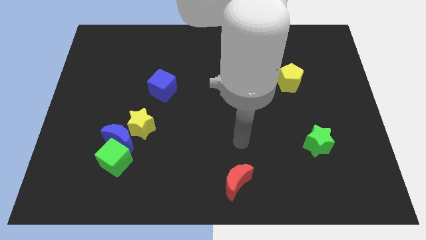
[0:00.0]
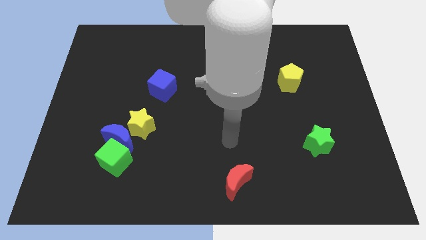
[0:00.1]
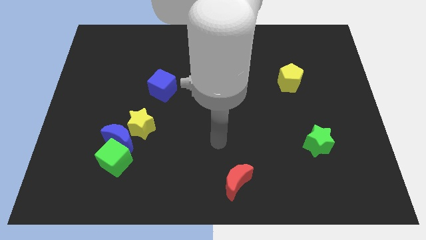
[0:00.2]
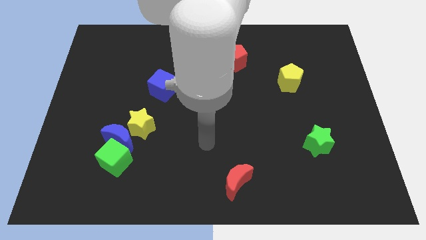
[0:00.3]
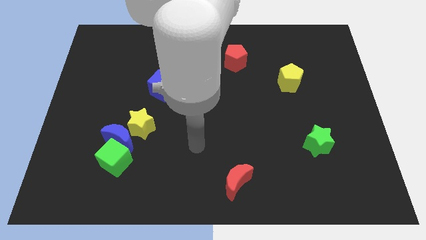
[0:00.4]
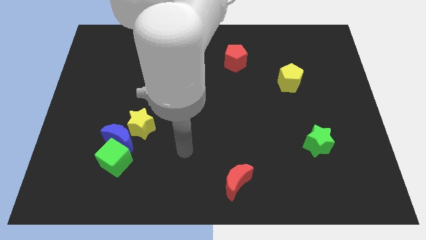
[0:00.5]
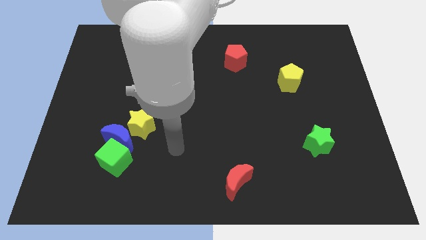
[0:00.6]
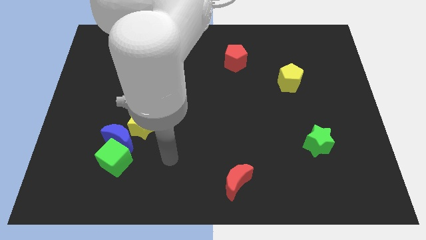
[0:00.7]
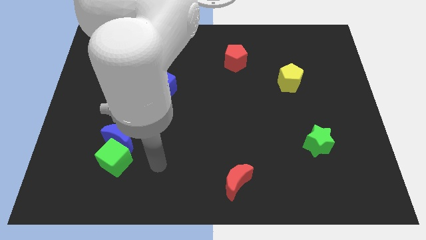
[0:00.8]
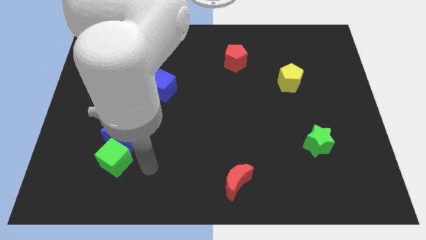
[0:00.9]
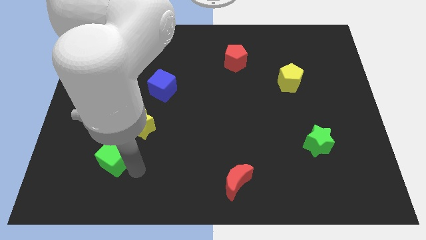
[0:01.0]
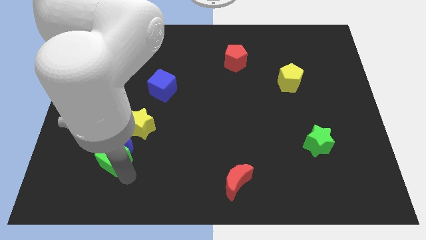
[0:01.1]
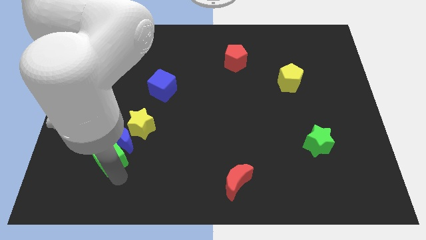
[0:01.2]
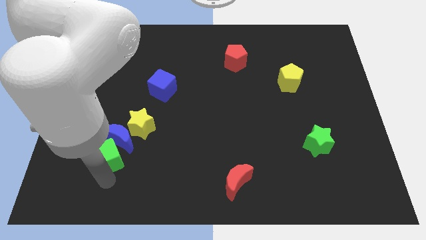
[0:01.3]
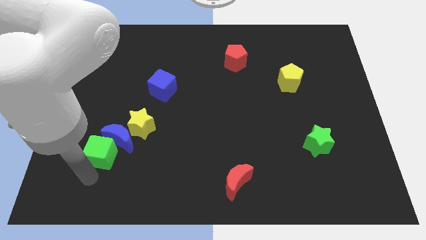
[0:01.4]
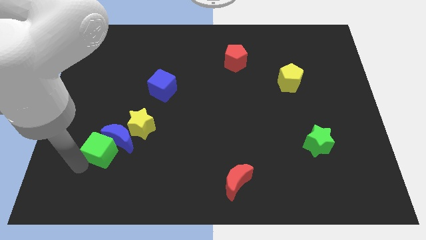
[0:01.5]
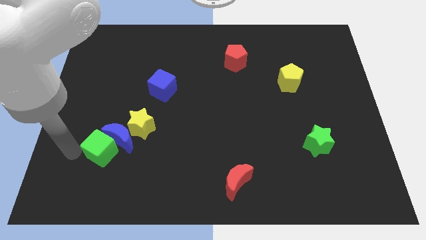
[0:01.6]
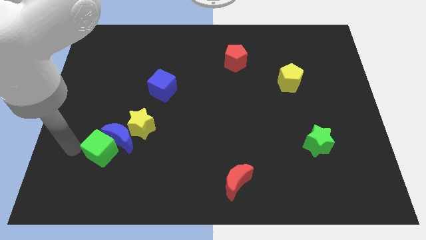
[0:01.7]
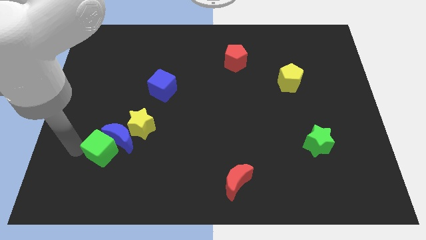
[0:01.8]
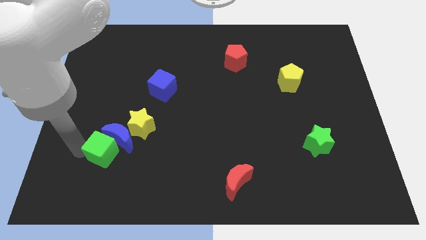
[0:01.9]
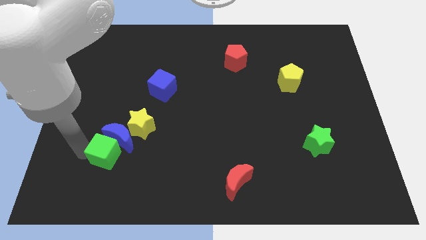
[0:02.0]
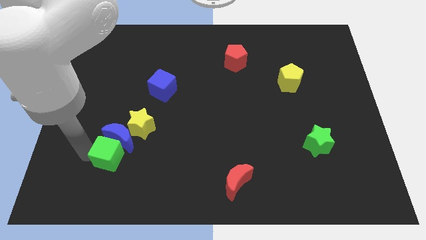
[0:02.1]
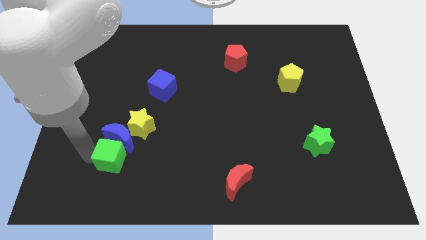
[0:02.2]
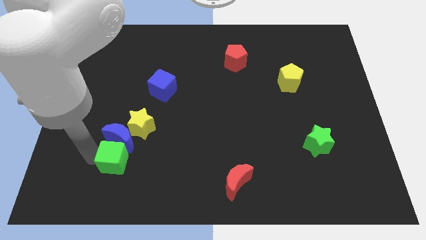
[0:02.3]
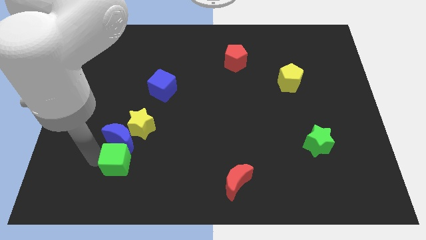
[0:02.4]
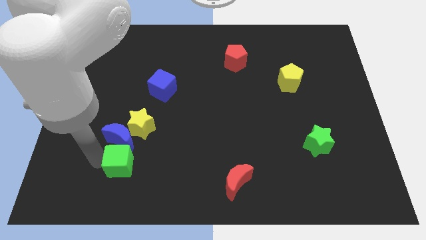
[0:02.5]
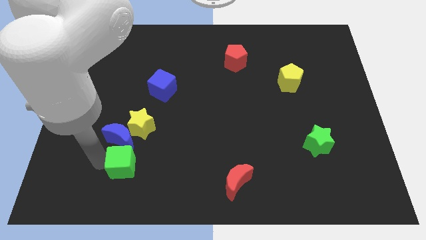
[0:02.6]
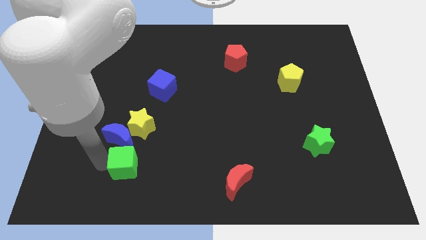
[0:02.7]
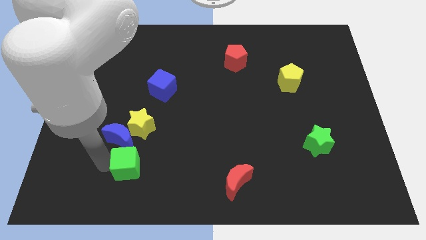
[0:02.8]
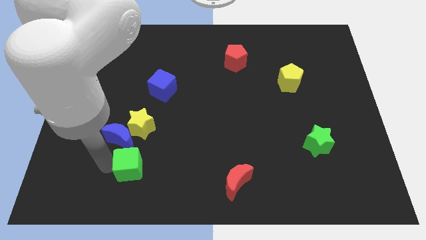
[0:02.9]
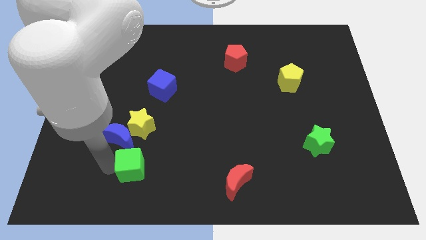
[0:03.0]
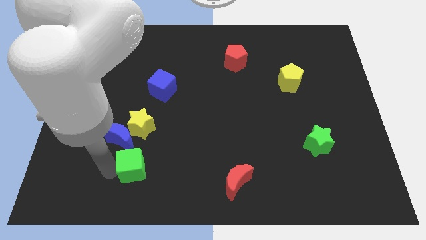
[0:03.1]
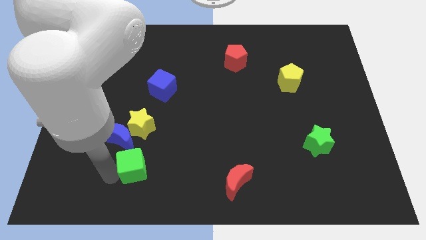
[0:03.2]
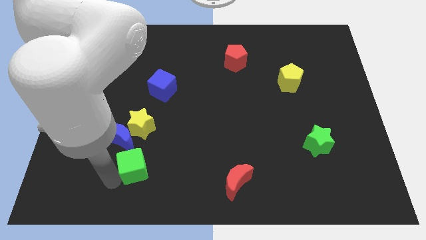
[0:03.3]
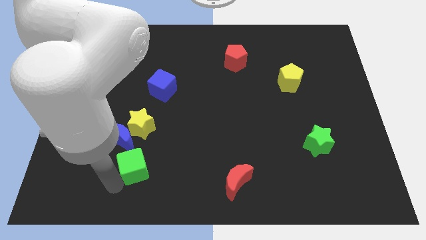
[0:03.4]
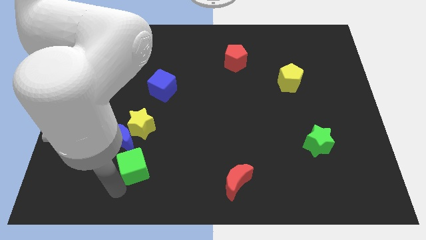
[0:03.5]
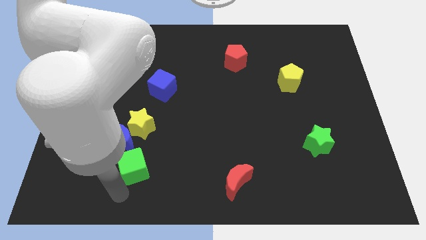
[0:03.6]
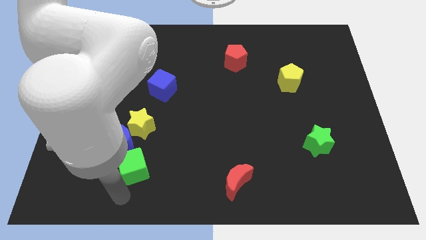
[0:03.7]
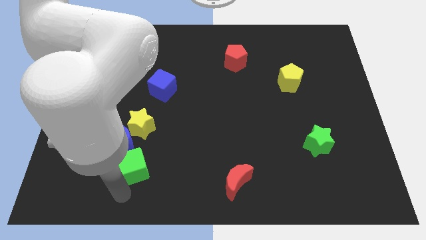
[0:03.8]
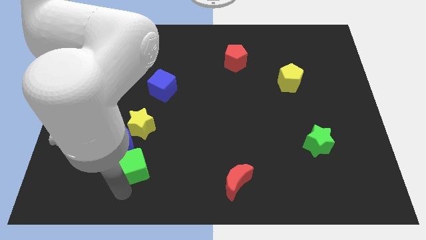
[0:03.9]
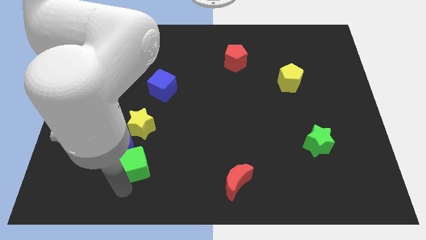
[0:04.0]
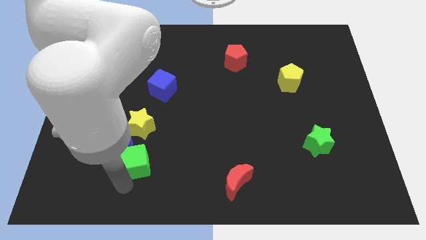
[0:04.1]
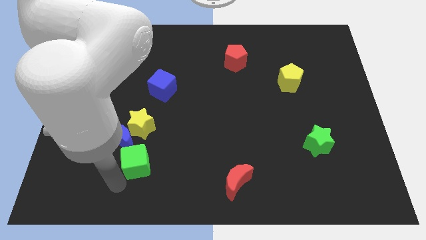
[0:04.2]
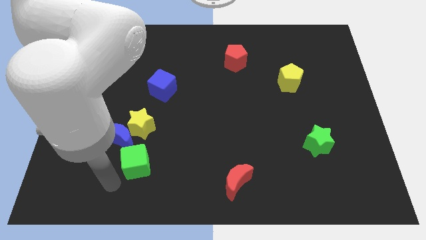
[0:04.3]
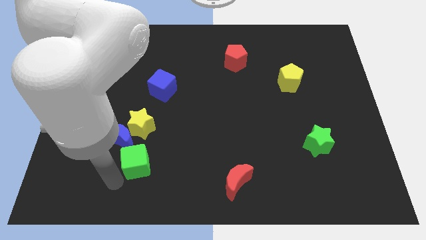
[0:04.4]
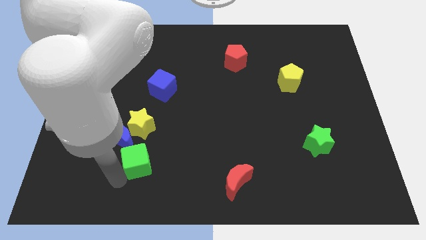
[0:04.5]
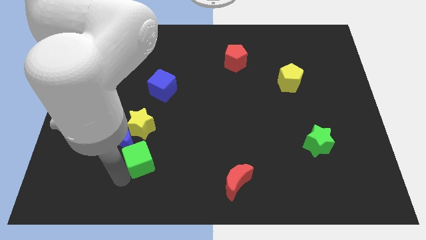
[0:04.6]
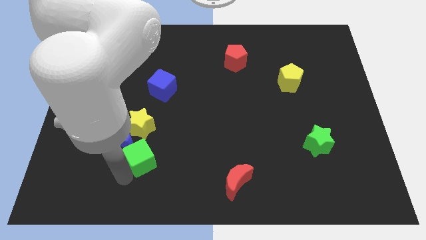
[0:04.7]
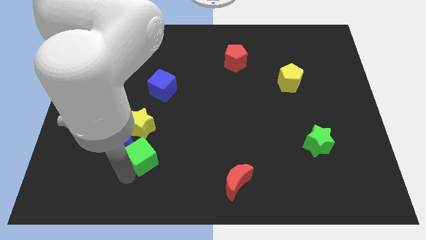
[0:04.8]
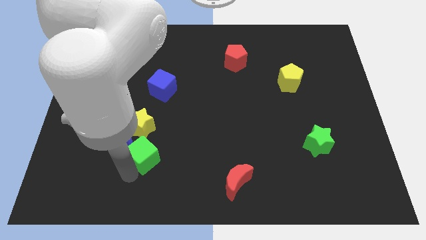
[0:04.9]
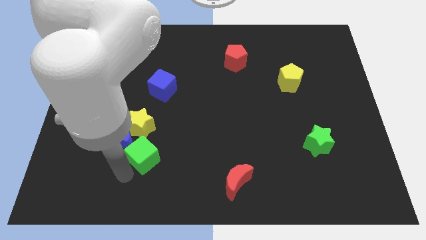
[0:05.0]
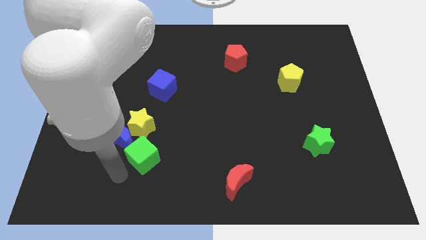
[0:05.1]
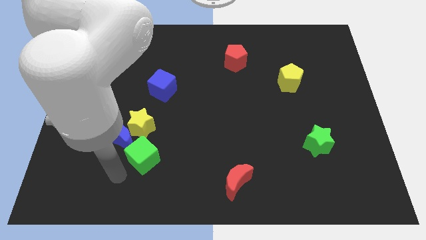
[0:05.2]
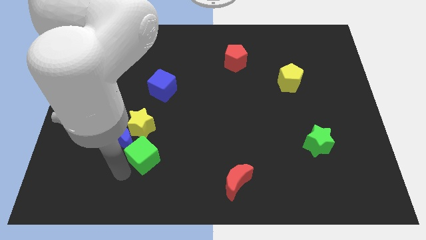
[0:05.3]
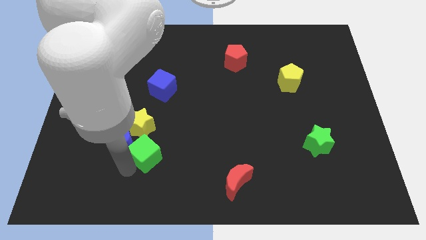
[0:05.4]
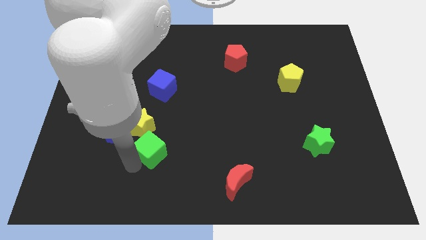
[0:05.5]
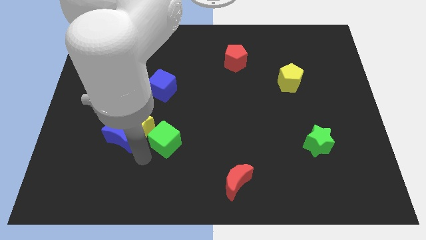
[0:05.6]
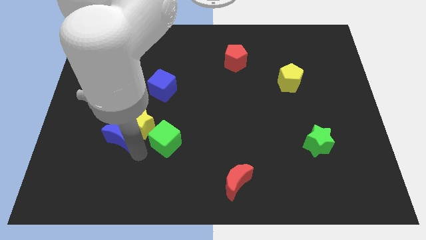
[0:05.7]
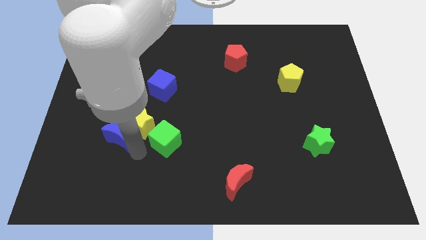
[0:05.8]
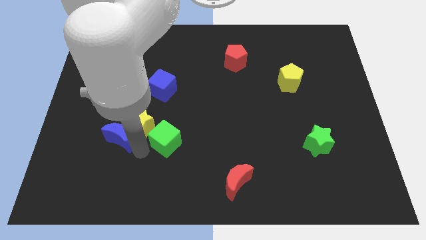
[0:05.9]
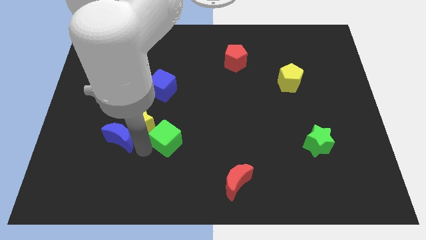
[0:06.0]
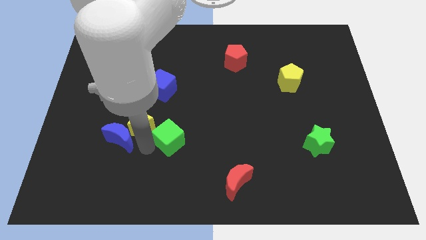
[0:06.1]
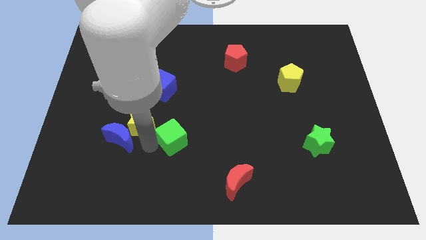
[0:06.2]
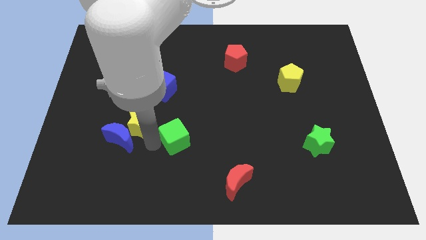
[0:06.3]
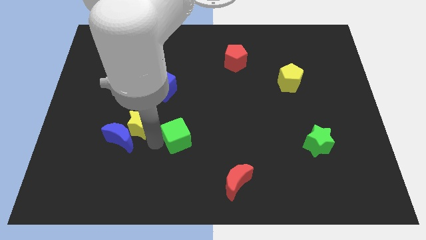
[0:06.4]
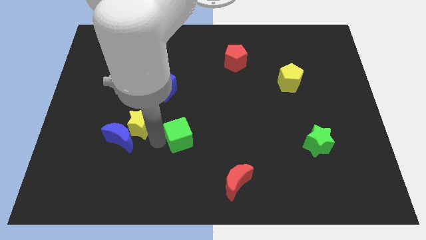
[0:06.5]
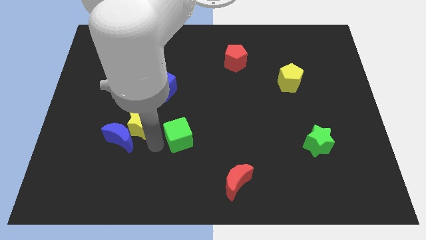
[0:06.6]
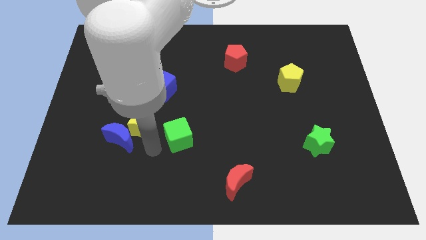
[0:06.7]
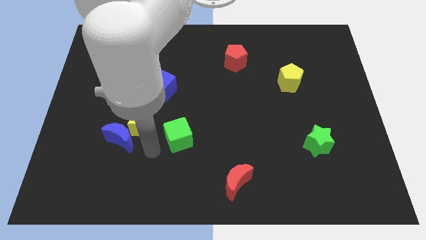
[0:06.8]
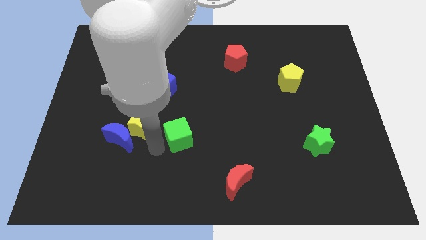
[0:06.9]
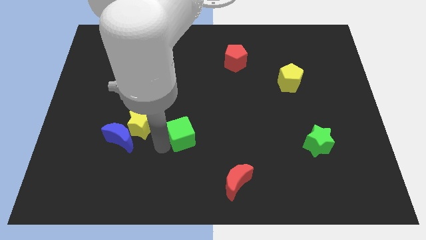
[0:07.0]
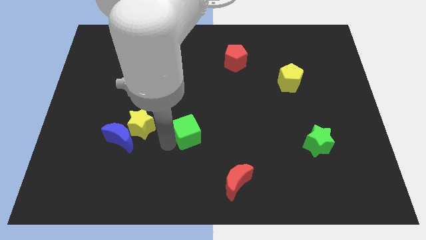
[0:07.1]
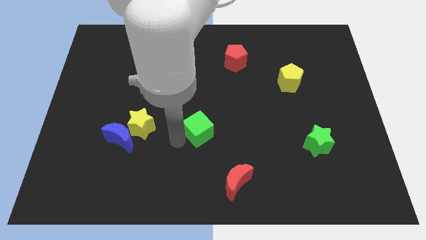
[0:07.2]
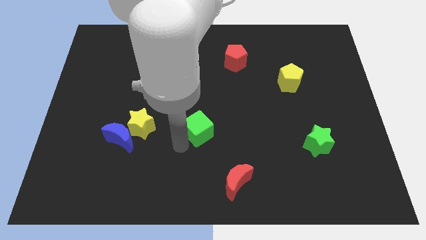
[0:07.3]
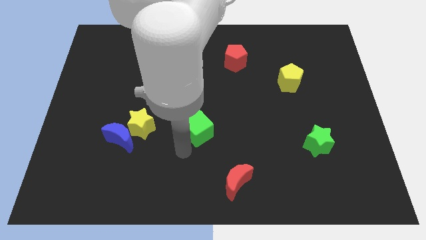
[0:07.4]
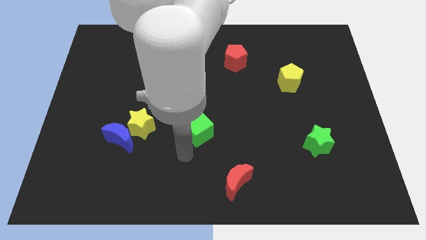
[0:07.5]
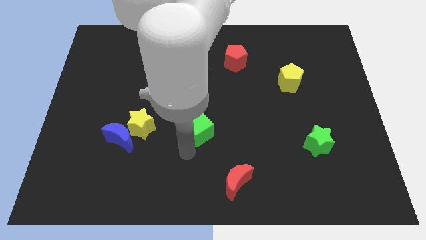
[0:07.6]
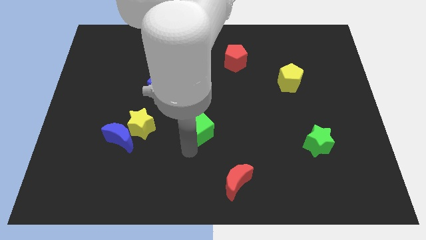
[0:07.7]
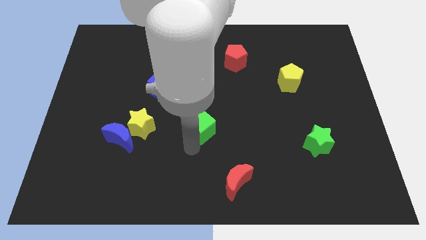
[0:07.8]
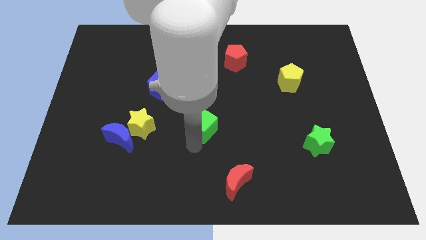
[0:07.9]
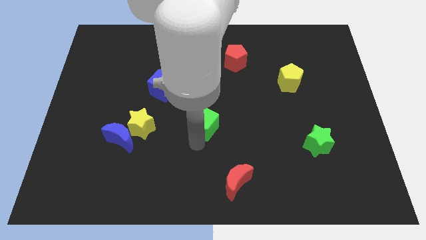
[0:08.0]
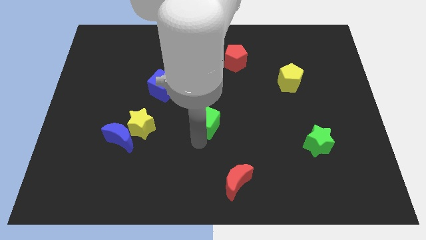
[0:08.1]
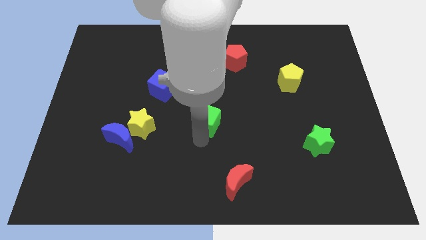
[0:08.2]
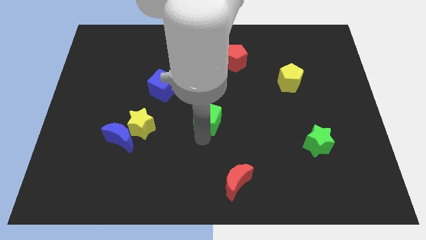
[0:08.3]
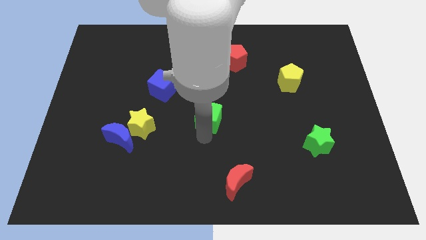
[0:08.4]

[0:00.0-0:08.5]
push the green cube up and to the right
